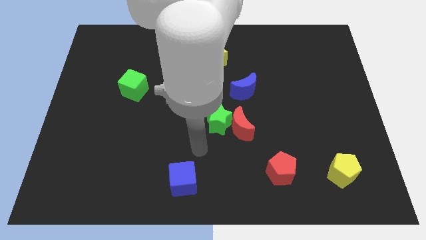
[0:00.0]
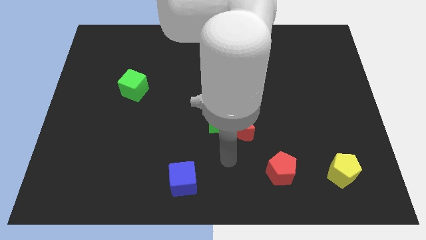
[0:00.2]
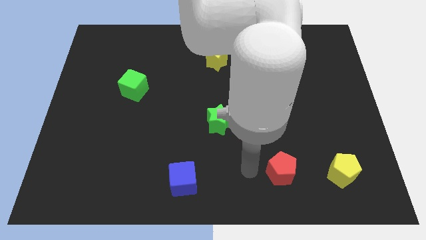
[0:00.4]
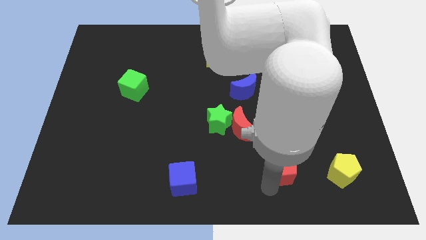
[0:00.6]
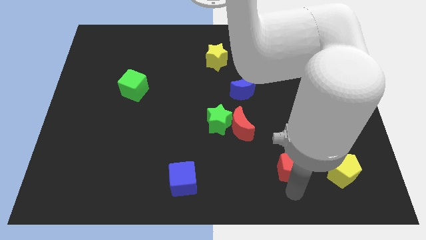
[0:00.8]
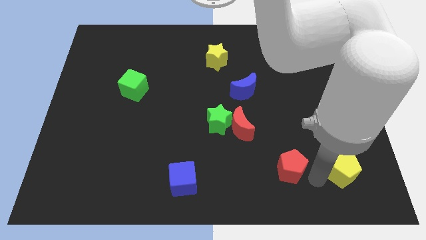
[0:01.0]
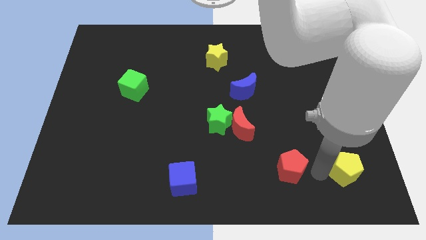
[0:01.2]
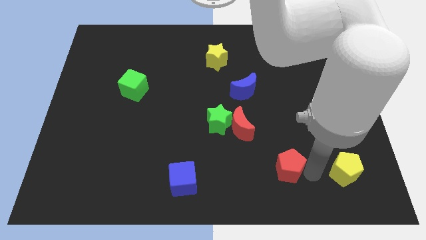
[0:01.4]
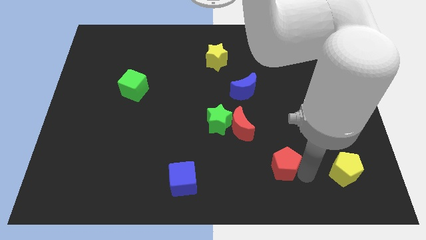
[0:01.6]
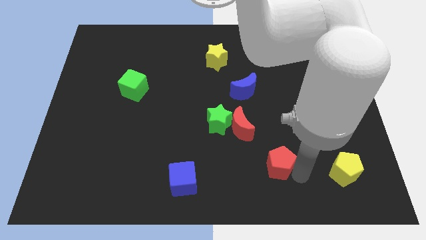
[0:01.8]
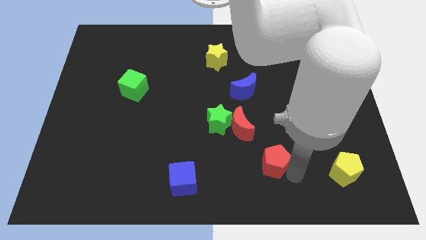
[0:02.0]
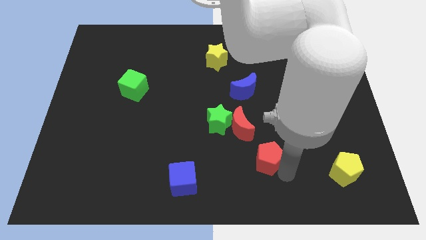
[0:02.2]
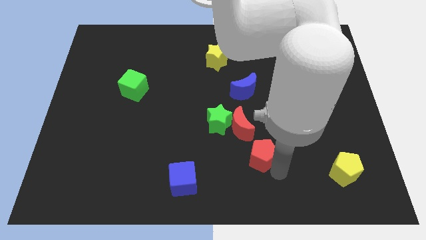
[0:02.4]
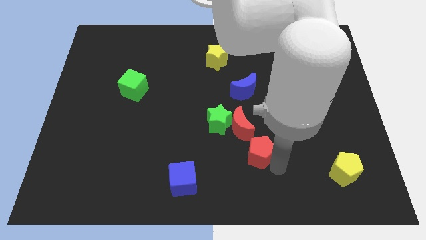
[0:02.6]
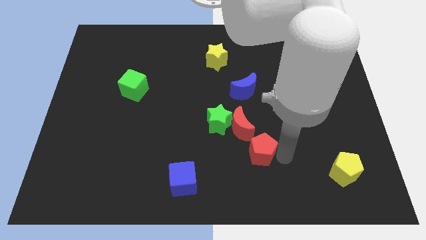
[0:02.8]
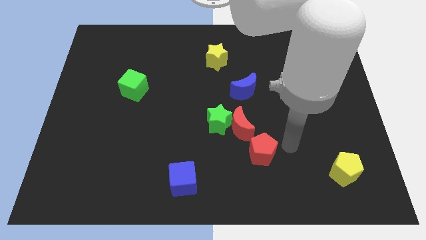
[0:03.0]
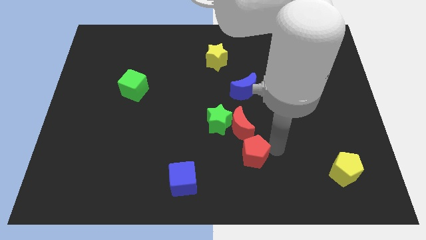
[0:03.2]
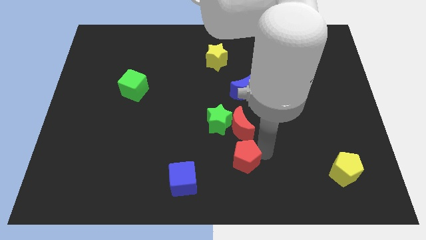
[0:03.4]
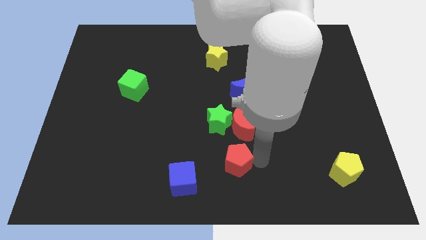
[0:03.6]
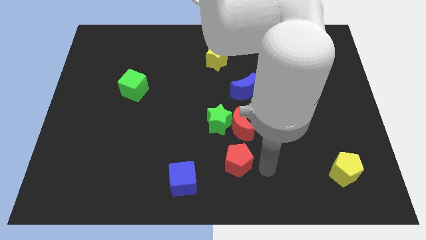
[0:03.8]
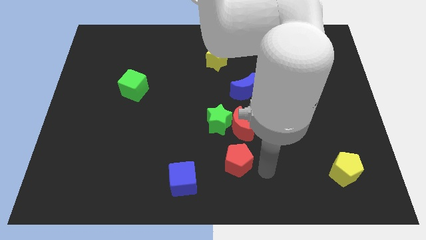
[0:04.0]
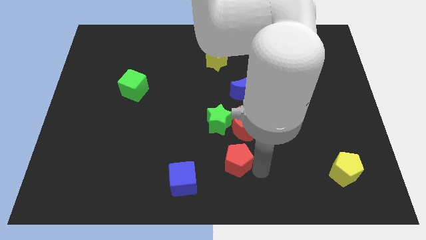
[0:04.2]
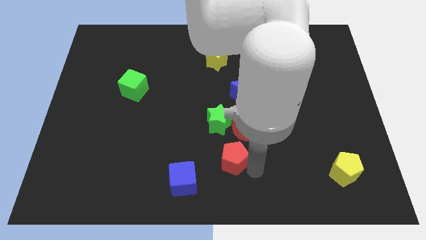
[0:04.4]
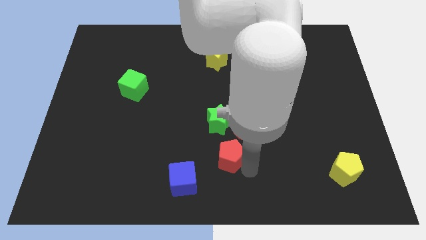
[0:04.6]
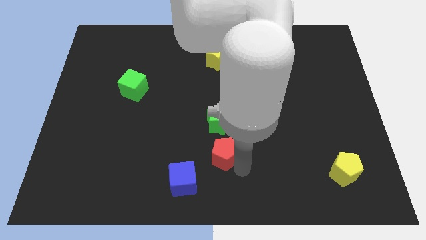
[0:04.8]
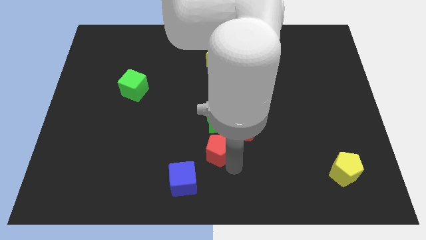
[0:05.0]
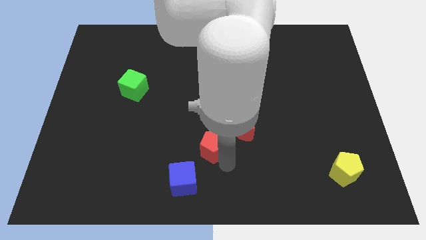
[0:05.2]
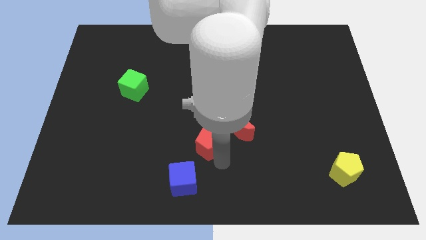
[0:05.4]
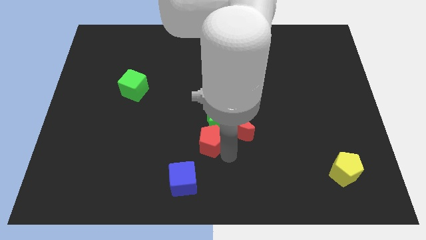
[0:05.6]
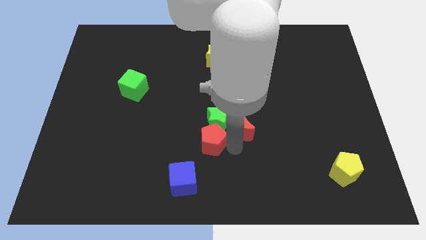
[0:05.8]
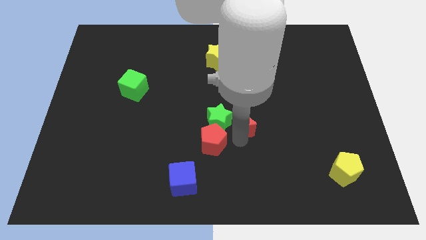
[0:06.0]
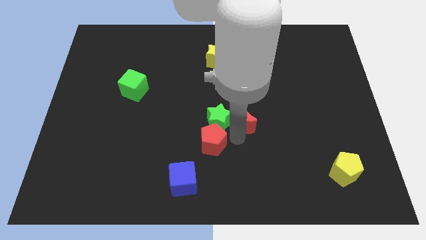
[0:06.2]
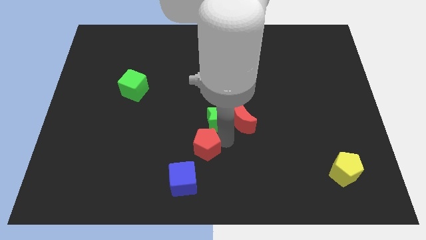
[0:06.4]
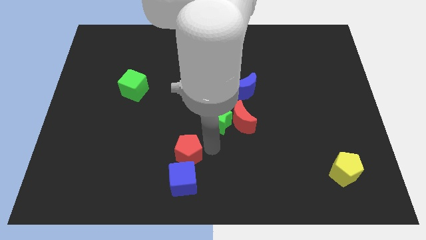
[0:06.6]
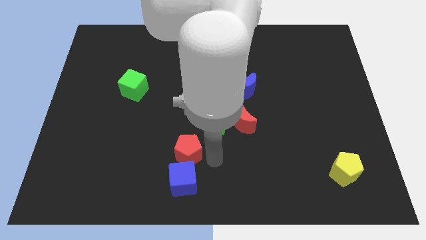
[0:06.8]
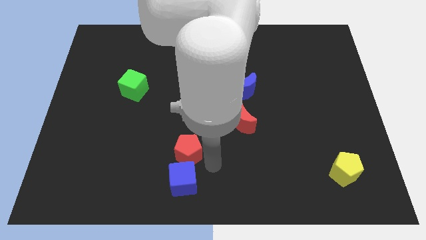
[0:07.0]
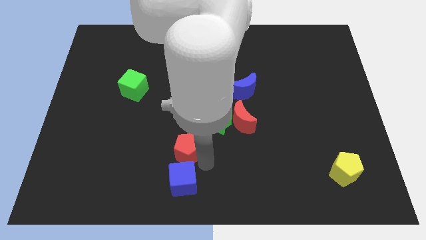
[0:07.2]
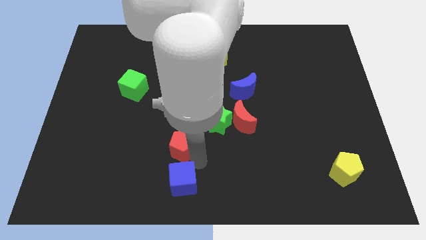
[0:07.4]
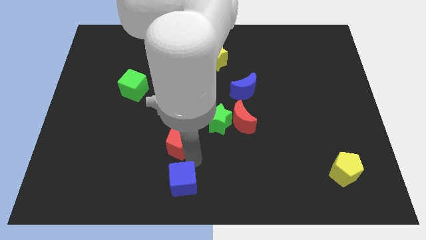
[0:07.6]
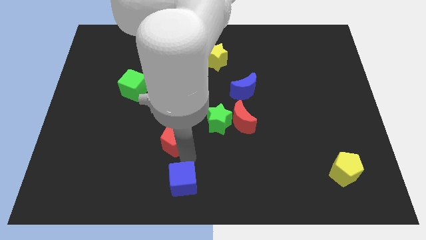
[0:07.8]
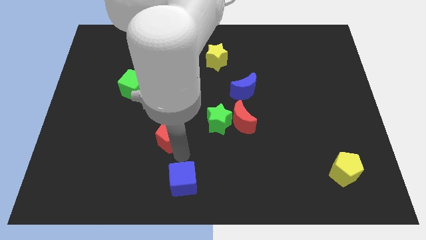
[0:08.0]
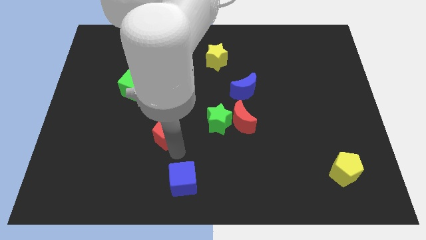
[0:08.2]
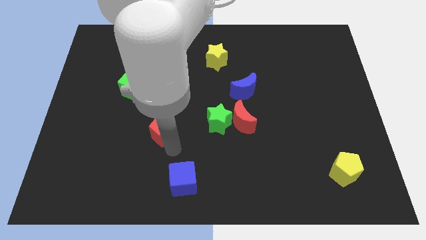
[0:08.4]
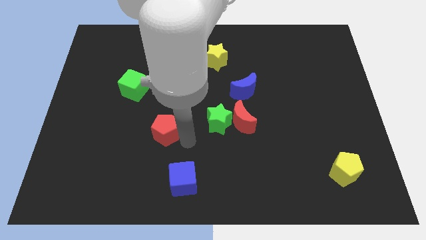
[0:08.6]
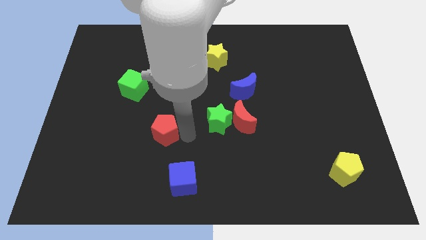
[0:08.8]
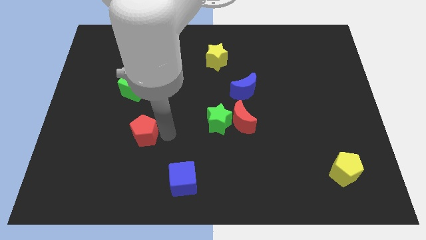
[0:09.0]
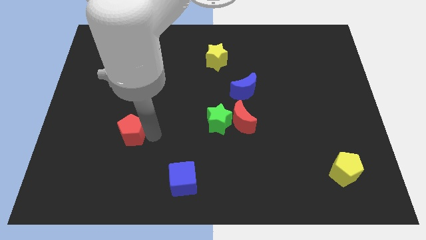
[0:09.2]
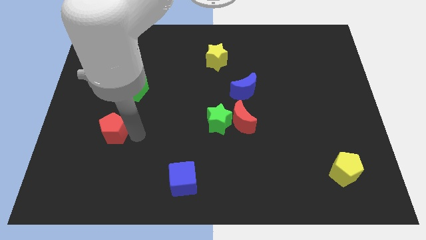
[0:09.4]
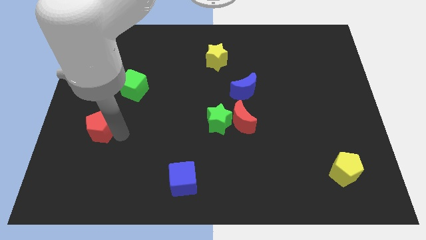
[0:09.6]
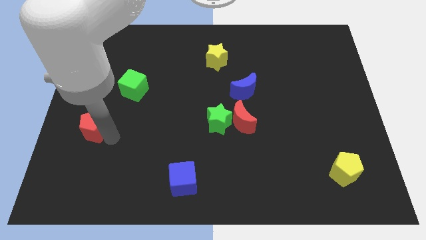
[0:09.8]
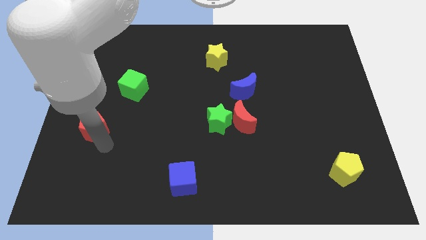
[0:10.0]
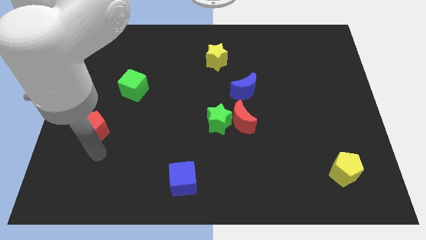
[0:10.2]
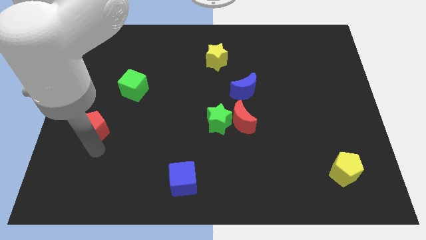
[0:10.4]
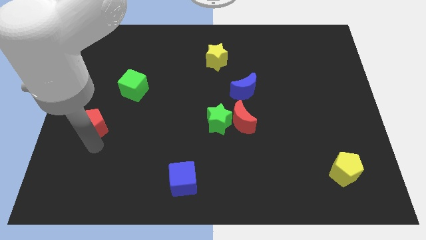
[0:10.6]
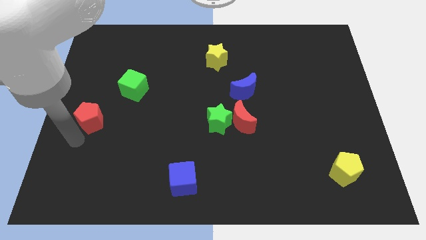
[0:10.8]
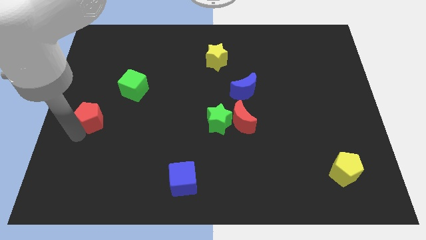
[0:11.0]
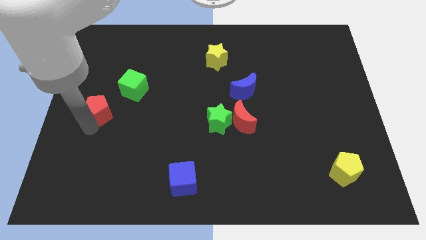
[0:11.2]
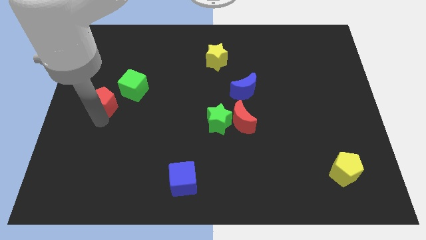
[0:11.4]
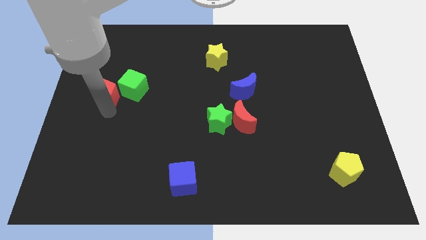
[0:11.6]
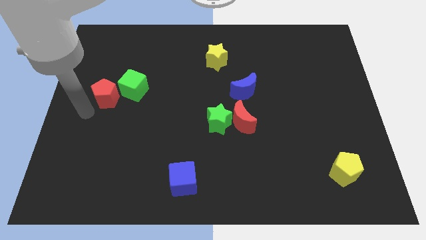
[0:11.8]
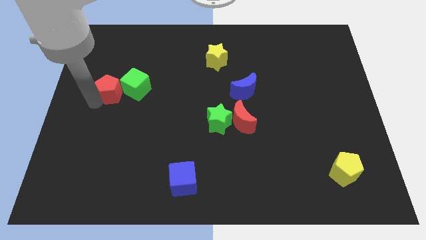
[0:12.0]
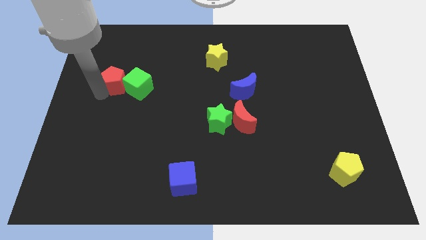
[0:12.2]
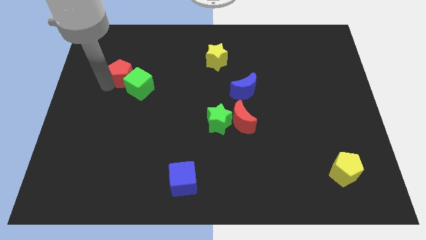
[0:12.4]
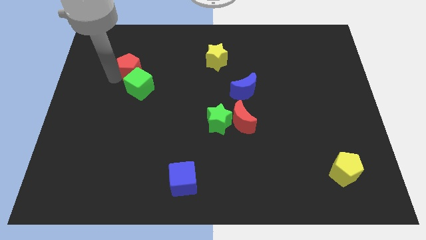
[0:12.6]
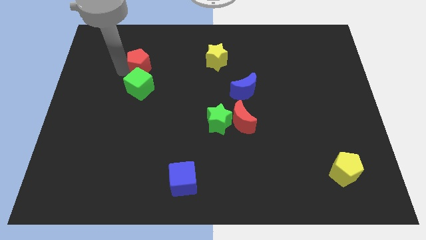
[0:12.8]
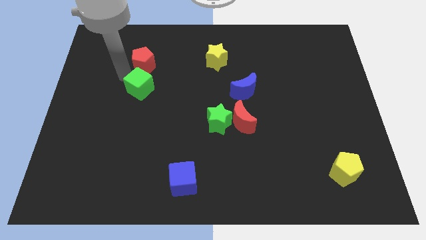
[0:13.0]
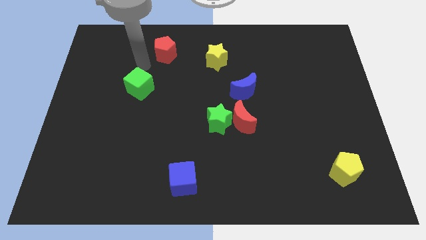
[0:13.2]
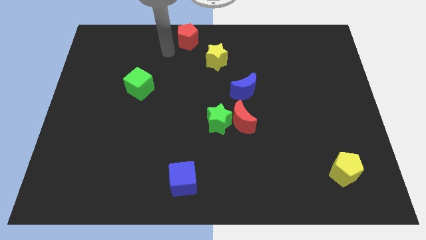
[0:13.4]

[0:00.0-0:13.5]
put the red pentagon to the top
